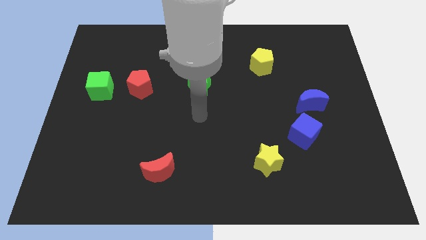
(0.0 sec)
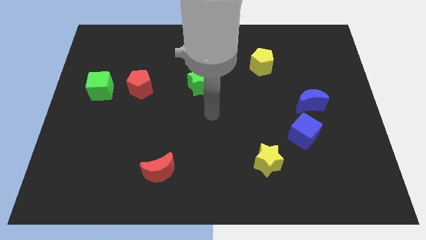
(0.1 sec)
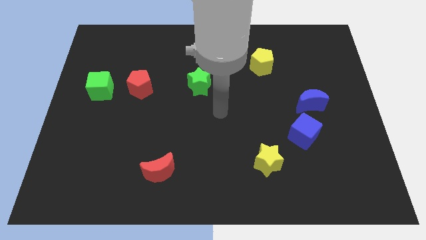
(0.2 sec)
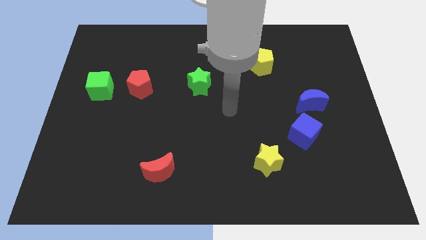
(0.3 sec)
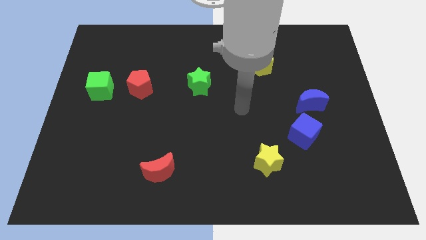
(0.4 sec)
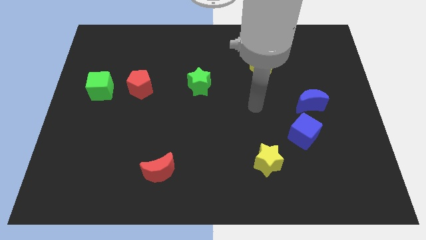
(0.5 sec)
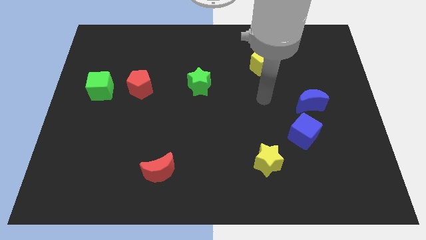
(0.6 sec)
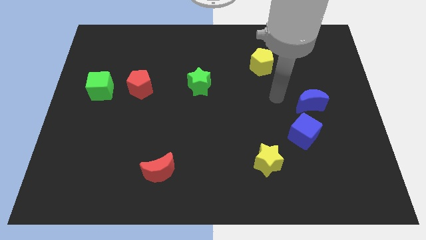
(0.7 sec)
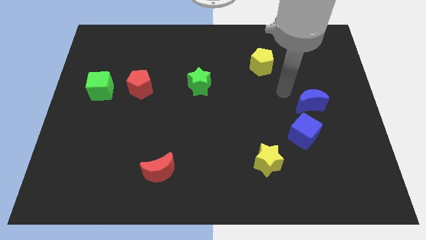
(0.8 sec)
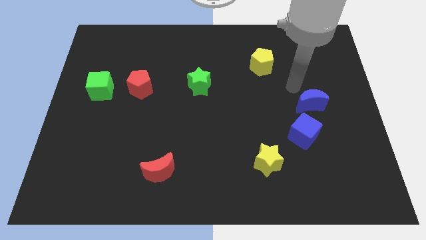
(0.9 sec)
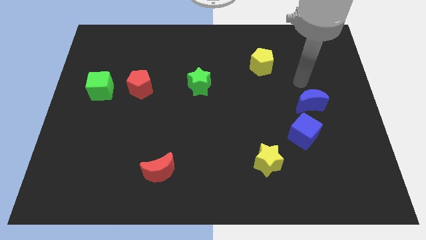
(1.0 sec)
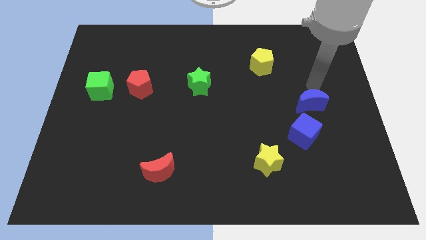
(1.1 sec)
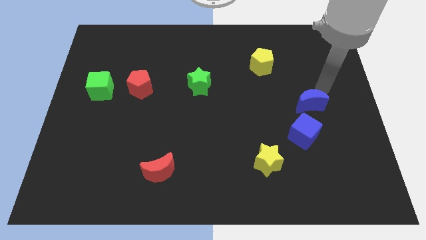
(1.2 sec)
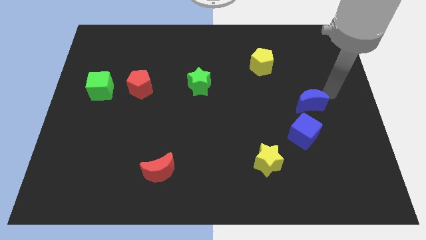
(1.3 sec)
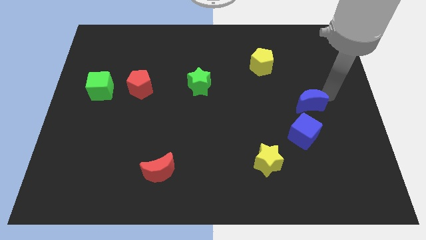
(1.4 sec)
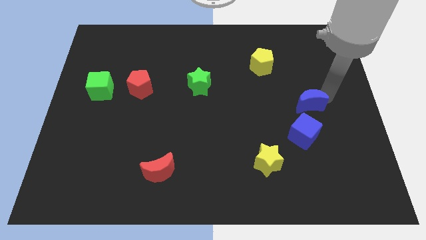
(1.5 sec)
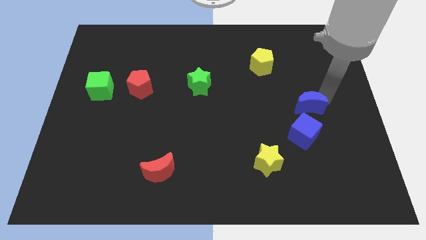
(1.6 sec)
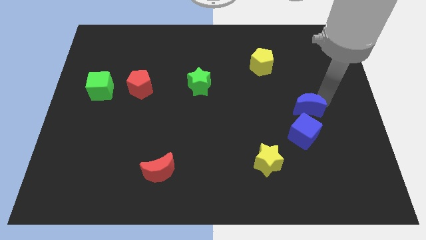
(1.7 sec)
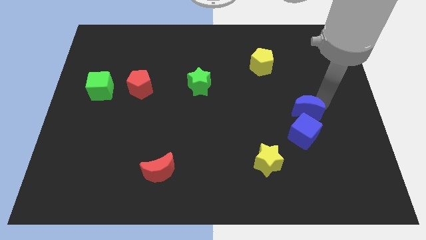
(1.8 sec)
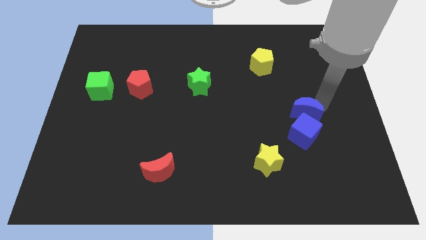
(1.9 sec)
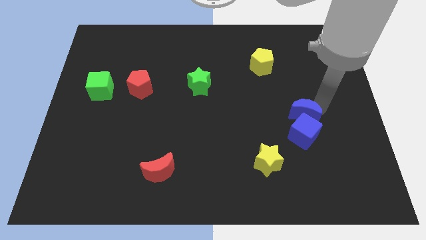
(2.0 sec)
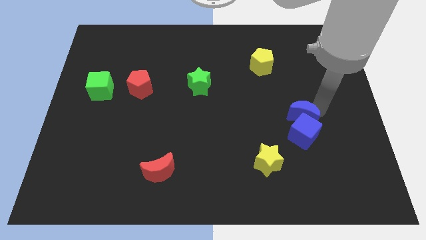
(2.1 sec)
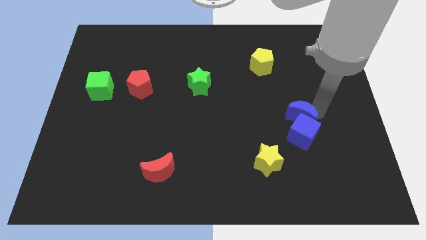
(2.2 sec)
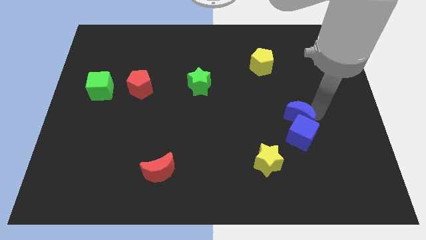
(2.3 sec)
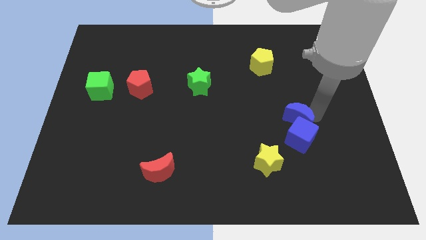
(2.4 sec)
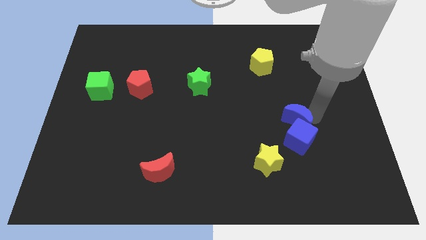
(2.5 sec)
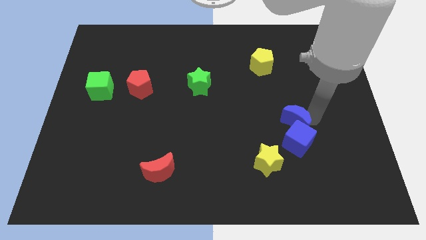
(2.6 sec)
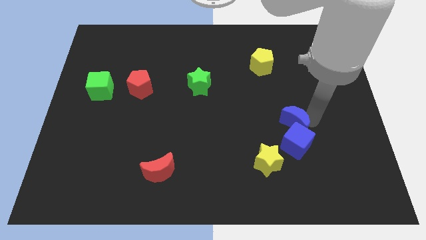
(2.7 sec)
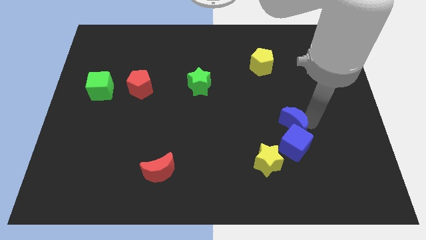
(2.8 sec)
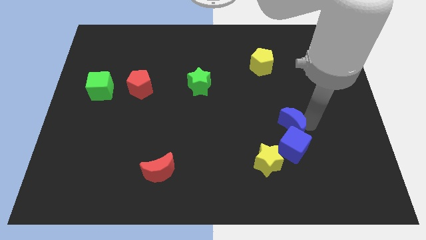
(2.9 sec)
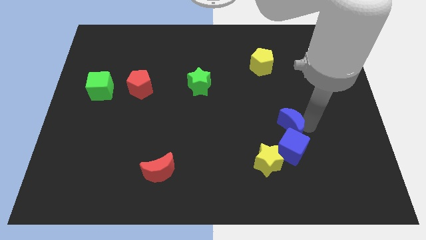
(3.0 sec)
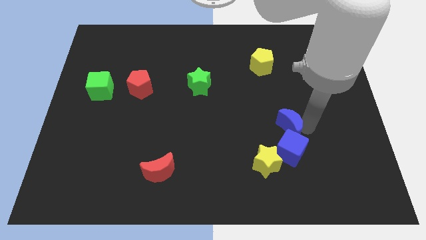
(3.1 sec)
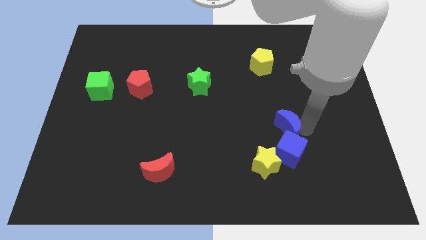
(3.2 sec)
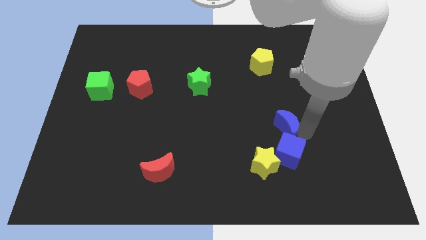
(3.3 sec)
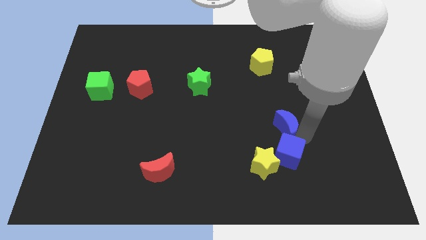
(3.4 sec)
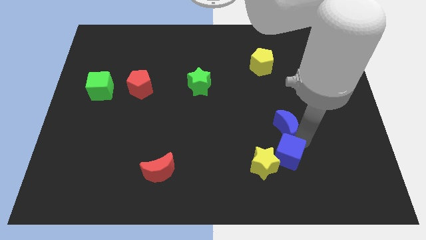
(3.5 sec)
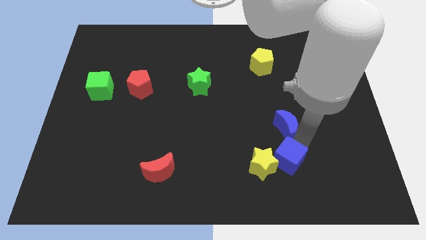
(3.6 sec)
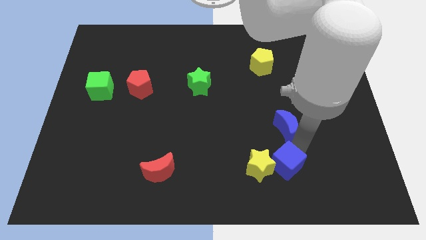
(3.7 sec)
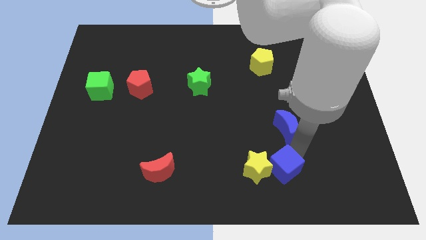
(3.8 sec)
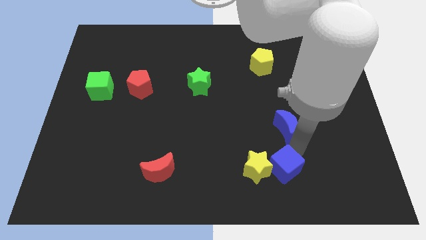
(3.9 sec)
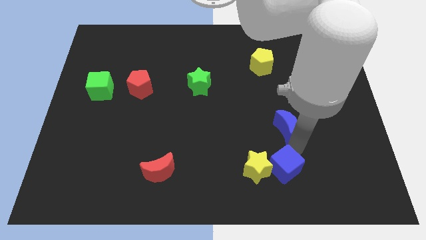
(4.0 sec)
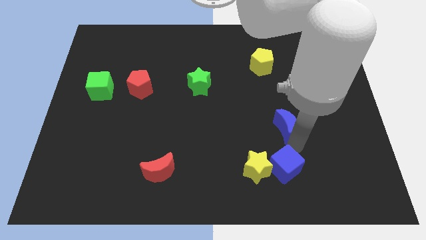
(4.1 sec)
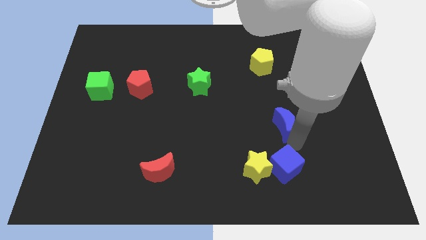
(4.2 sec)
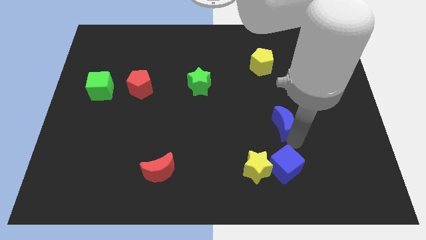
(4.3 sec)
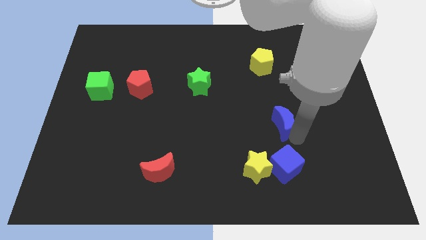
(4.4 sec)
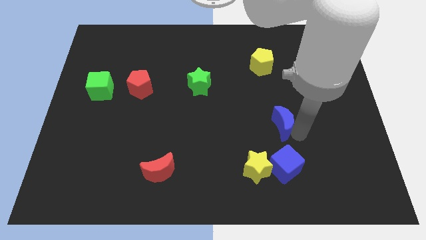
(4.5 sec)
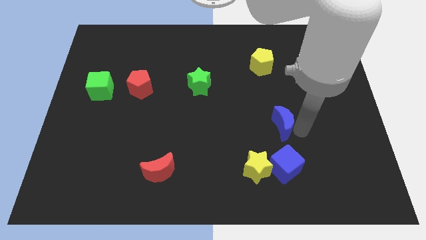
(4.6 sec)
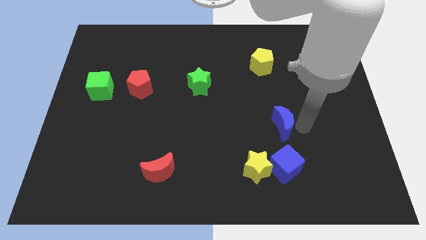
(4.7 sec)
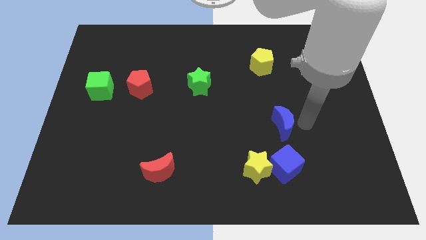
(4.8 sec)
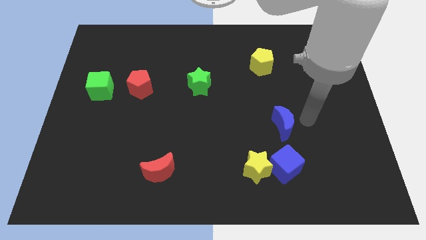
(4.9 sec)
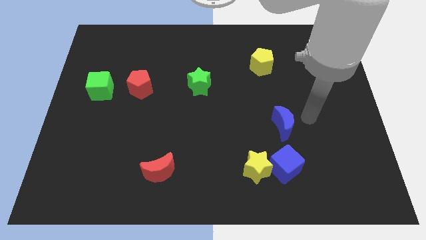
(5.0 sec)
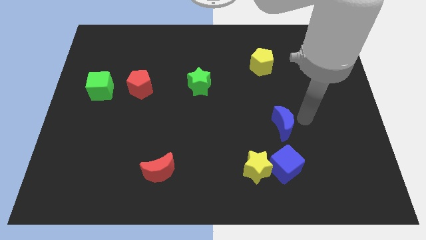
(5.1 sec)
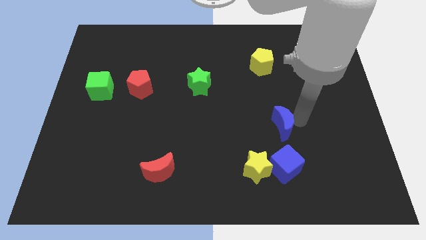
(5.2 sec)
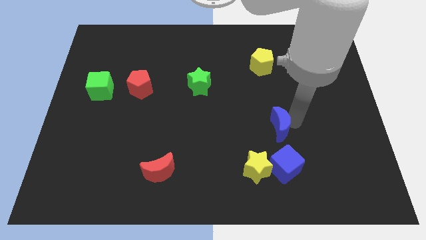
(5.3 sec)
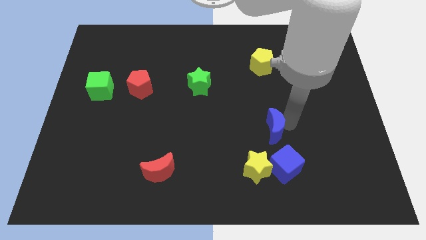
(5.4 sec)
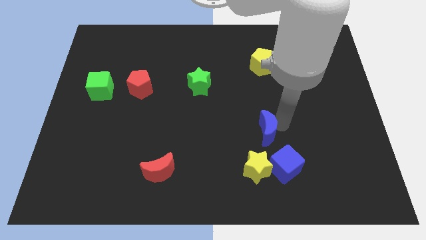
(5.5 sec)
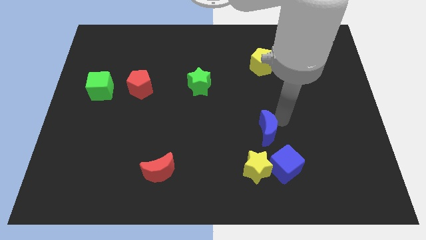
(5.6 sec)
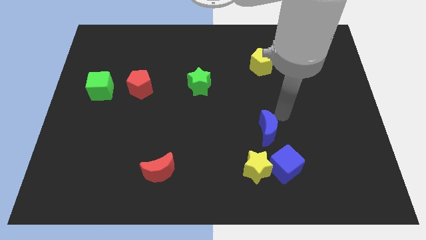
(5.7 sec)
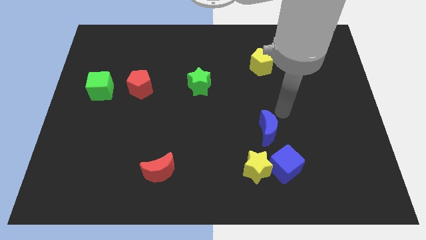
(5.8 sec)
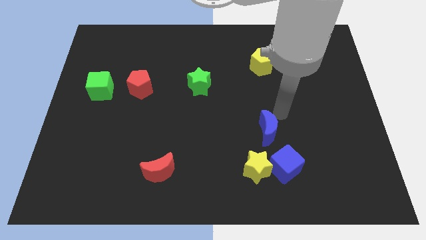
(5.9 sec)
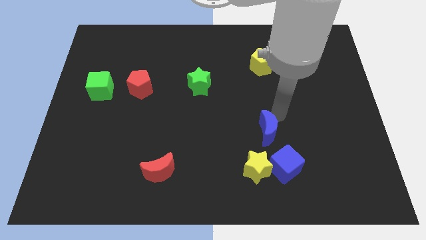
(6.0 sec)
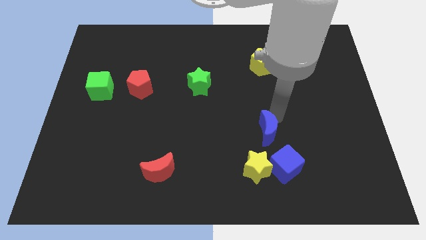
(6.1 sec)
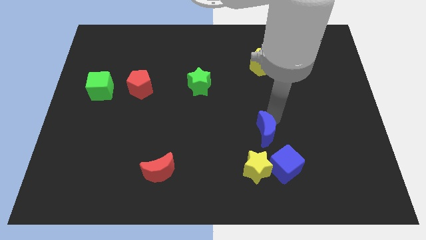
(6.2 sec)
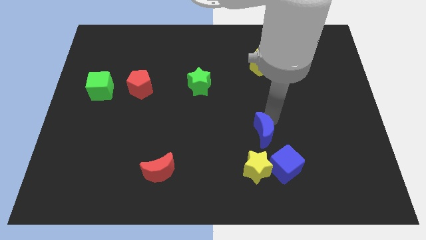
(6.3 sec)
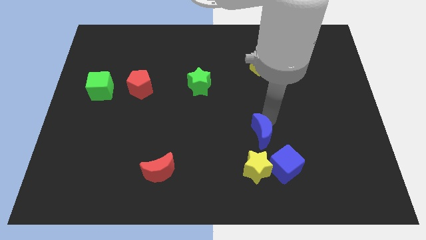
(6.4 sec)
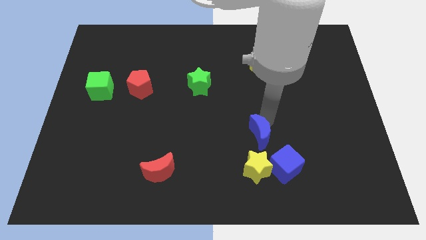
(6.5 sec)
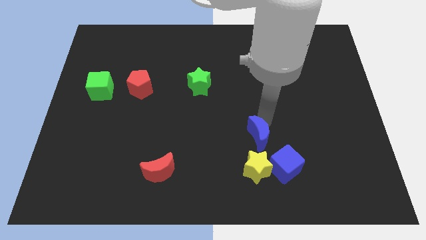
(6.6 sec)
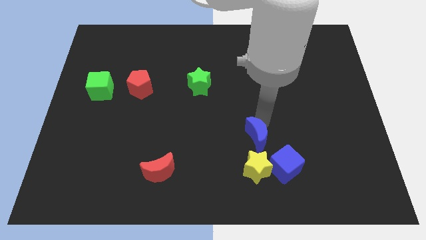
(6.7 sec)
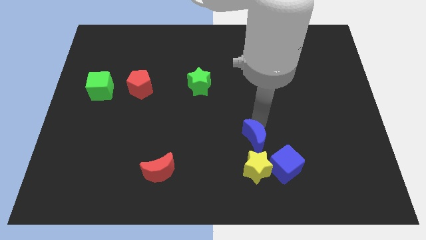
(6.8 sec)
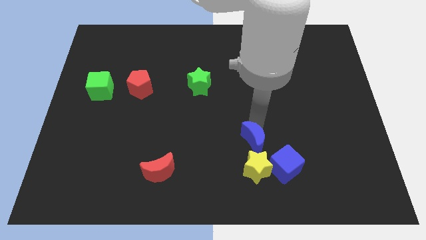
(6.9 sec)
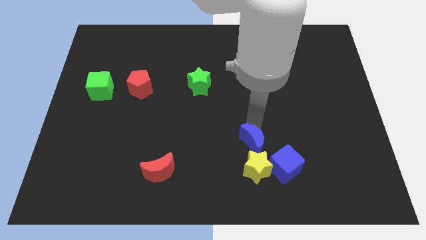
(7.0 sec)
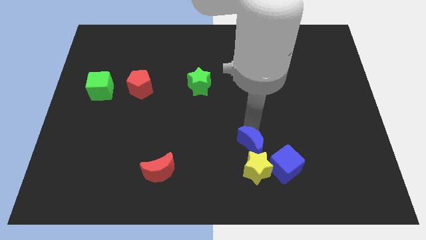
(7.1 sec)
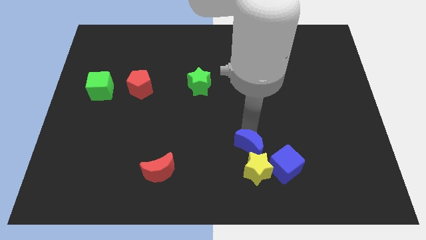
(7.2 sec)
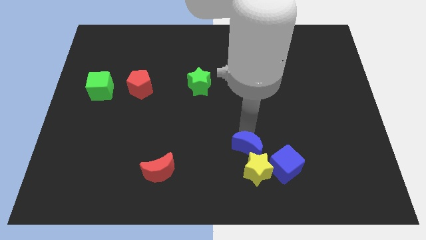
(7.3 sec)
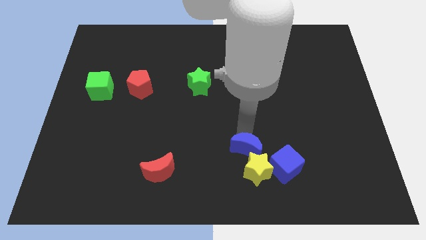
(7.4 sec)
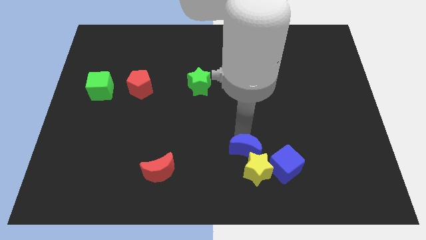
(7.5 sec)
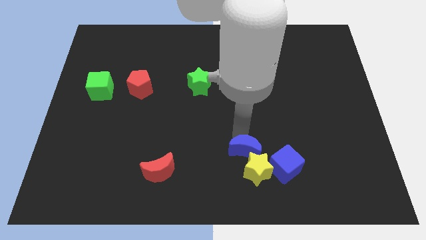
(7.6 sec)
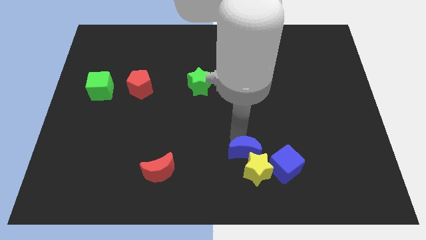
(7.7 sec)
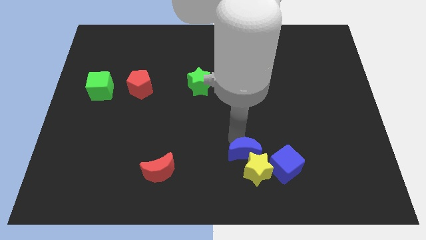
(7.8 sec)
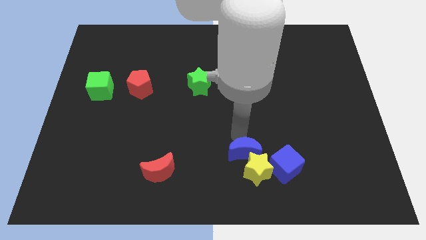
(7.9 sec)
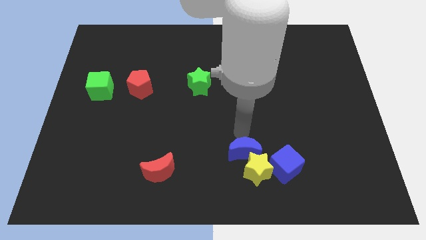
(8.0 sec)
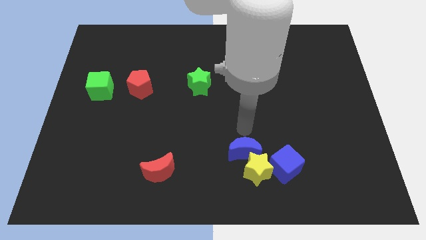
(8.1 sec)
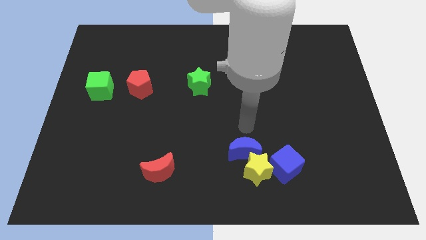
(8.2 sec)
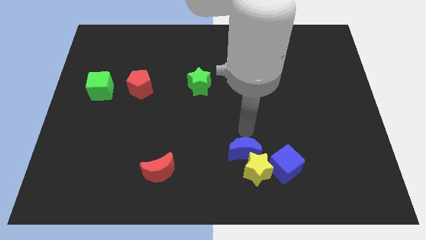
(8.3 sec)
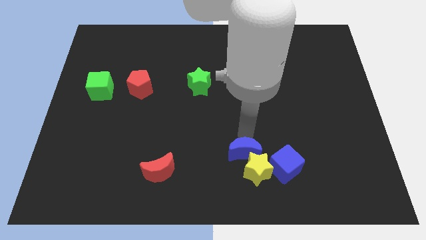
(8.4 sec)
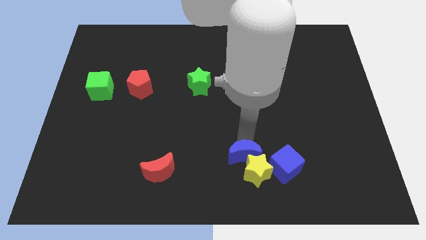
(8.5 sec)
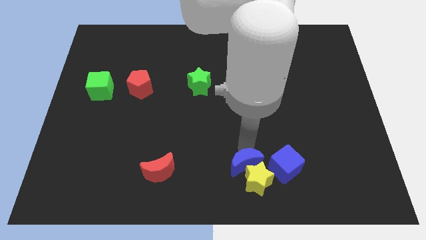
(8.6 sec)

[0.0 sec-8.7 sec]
push the blue moon to the bottom side
